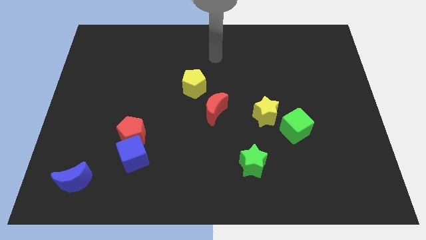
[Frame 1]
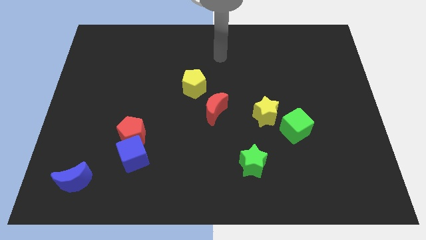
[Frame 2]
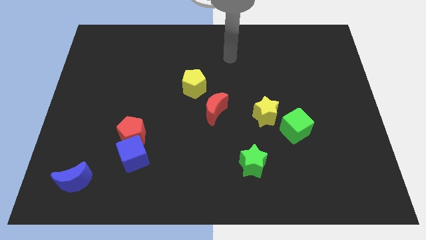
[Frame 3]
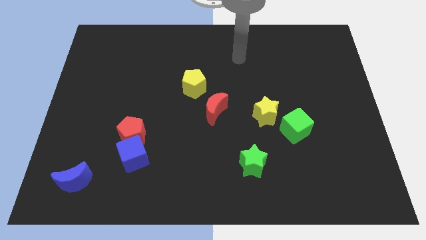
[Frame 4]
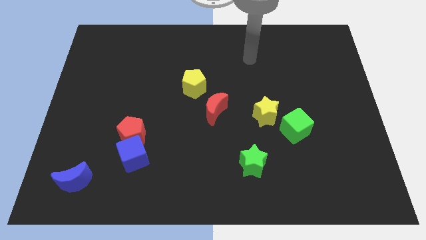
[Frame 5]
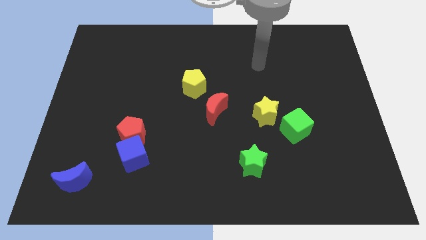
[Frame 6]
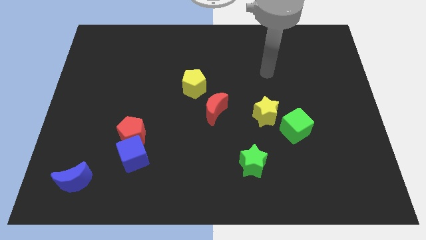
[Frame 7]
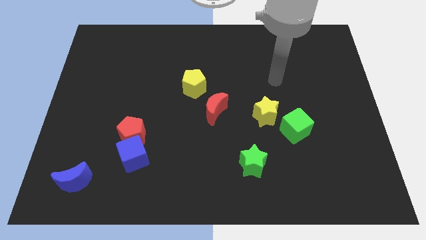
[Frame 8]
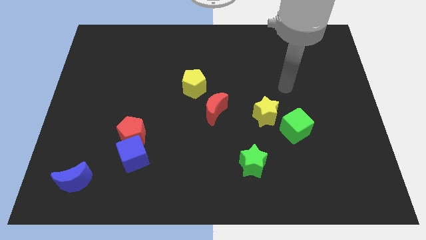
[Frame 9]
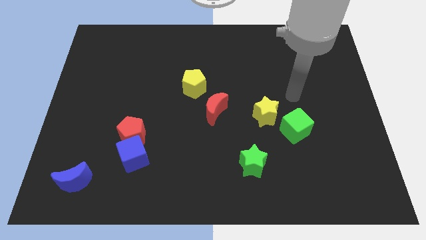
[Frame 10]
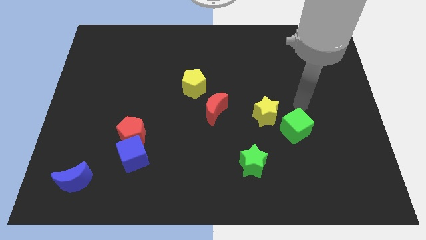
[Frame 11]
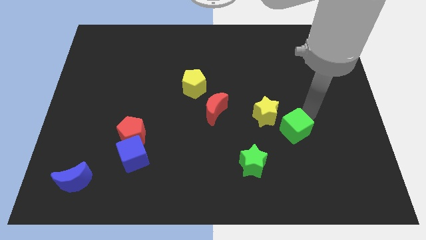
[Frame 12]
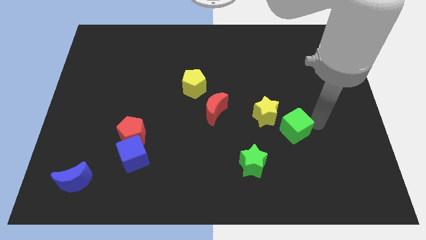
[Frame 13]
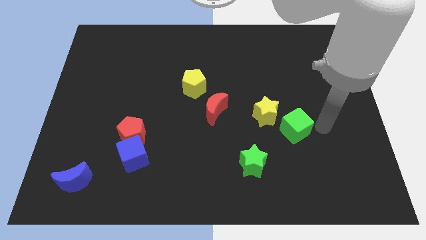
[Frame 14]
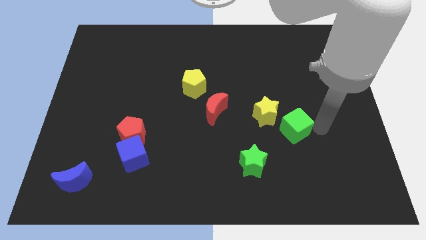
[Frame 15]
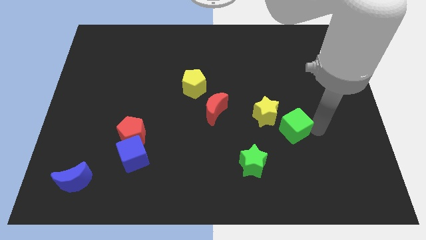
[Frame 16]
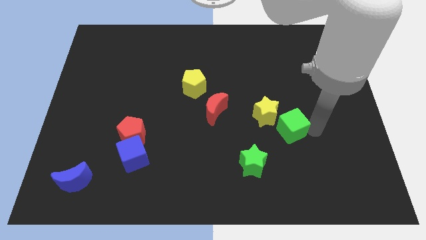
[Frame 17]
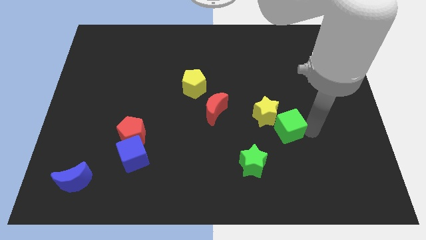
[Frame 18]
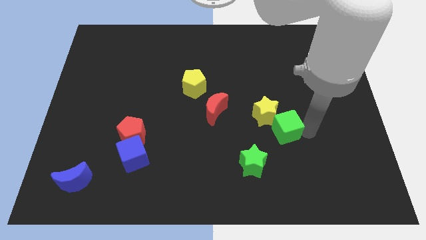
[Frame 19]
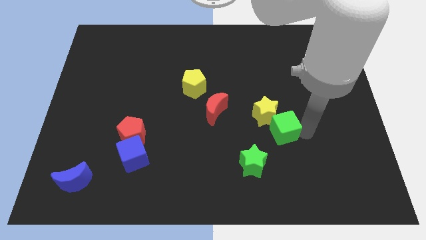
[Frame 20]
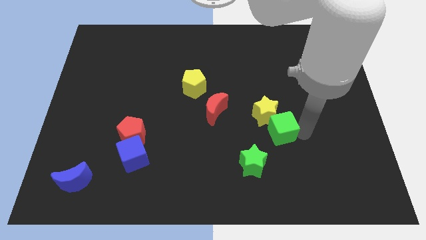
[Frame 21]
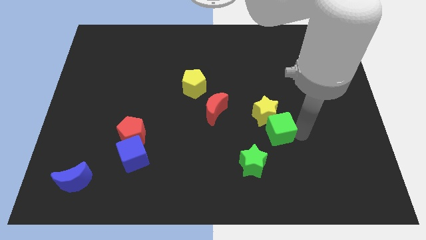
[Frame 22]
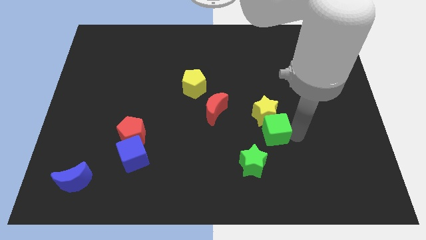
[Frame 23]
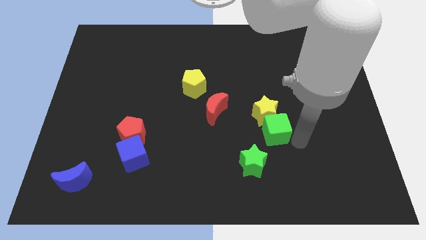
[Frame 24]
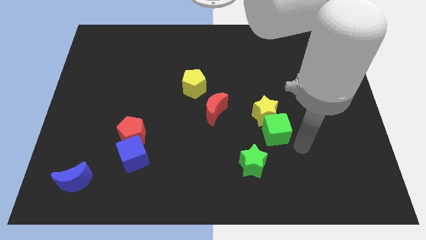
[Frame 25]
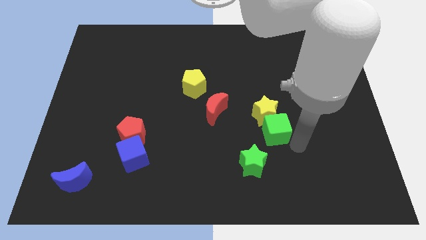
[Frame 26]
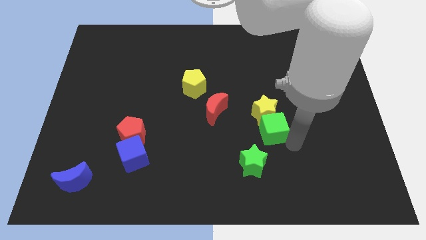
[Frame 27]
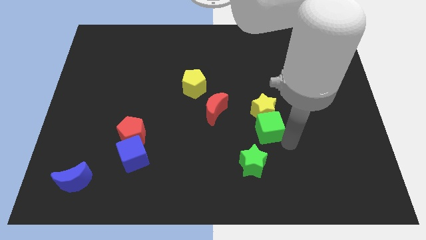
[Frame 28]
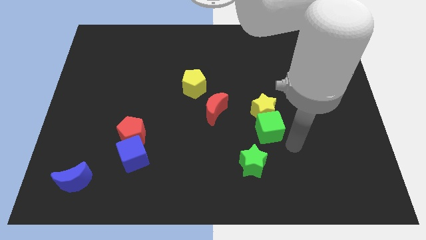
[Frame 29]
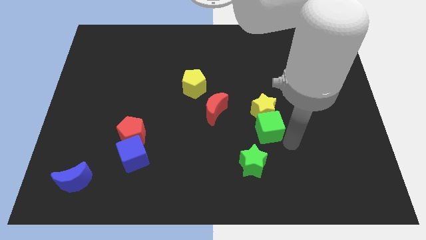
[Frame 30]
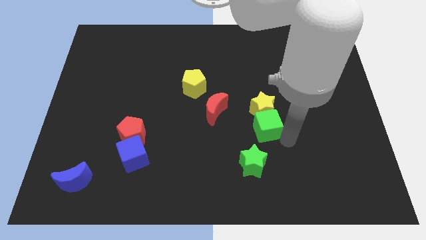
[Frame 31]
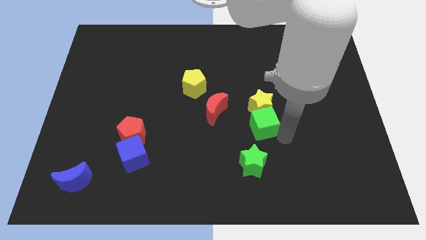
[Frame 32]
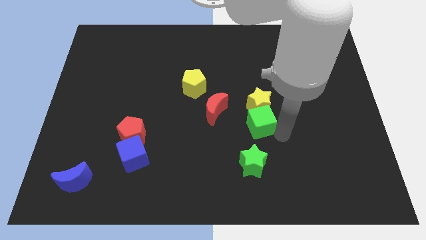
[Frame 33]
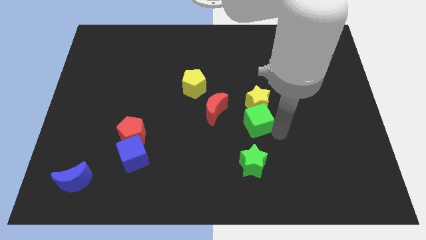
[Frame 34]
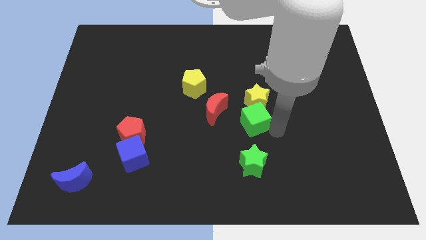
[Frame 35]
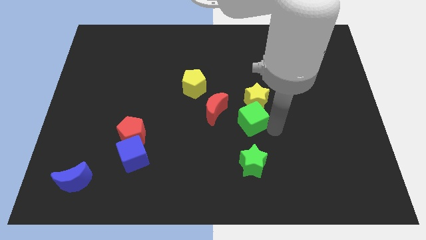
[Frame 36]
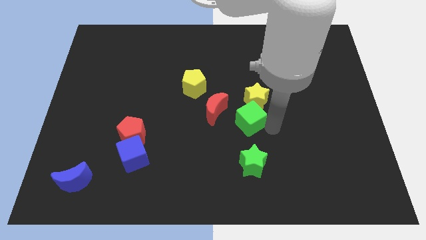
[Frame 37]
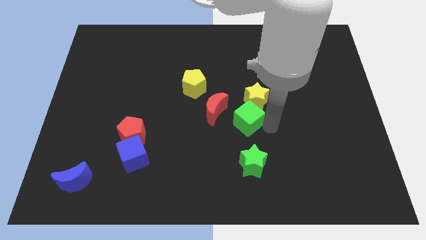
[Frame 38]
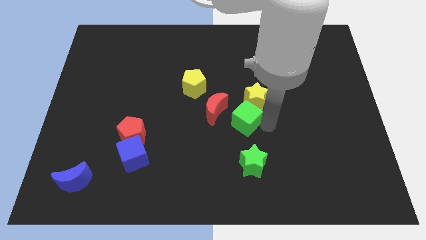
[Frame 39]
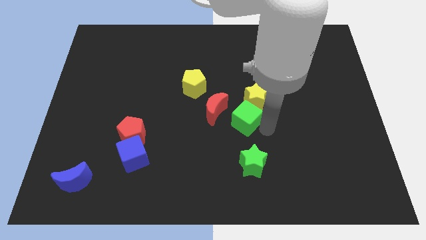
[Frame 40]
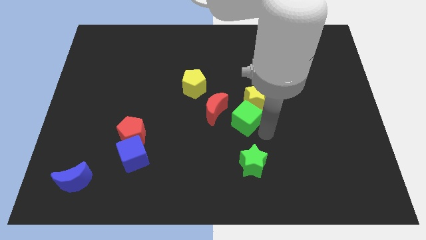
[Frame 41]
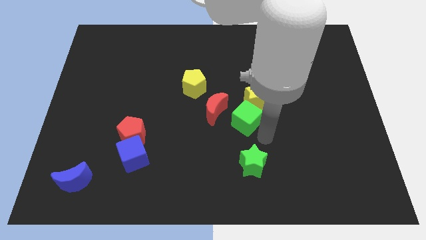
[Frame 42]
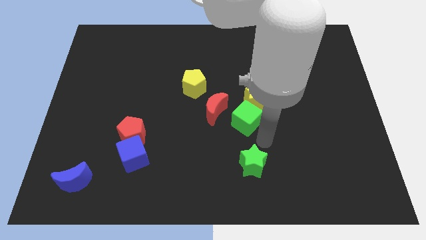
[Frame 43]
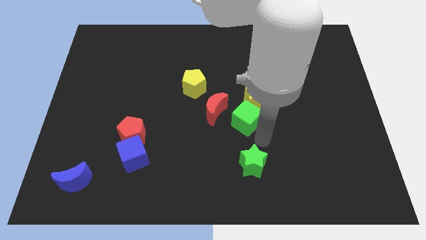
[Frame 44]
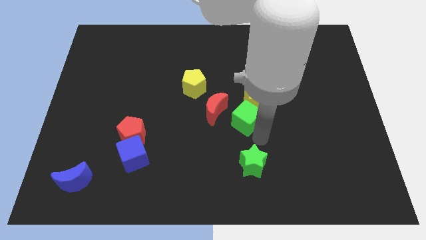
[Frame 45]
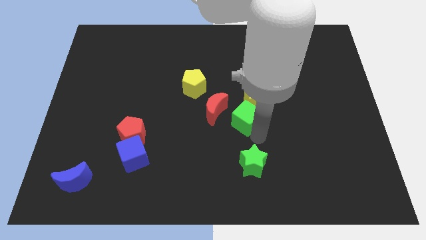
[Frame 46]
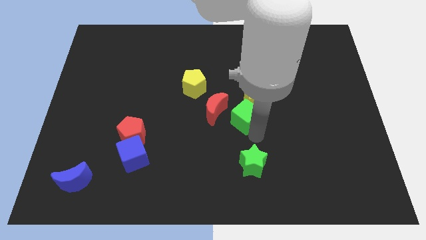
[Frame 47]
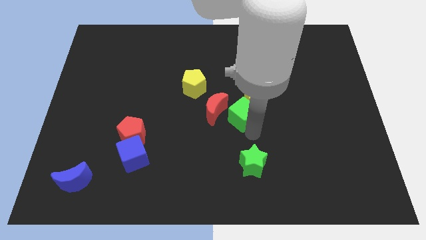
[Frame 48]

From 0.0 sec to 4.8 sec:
push the green cube left of the yellow star

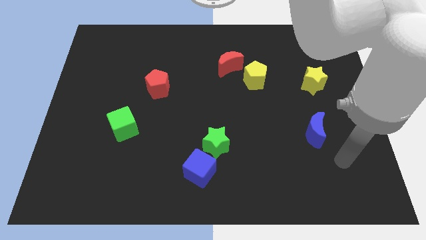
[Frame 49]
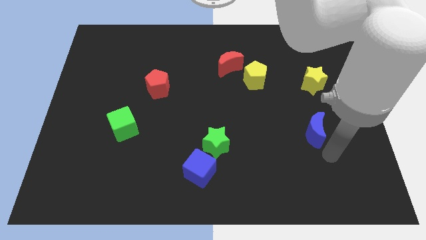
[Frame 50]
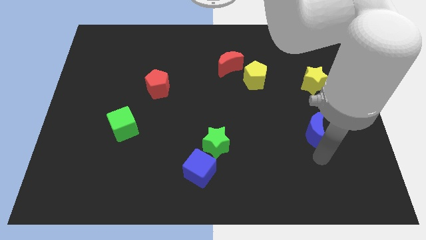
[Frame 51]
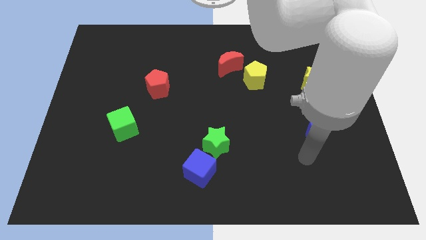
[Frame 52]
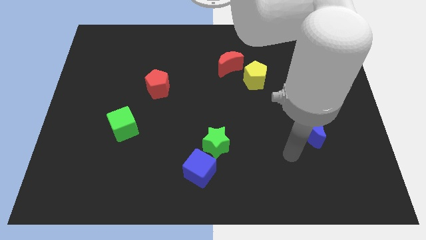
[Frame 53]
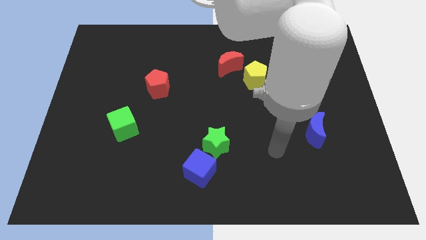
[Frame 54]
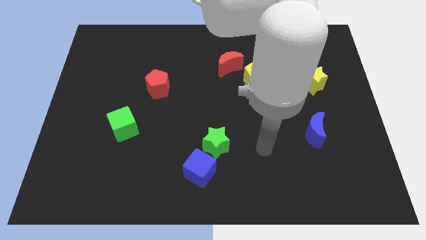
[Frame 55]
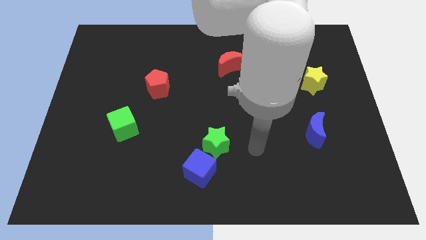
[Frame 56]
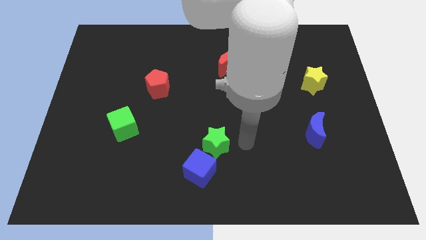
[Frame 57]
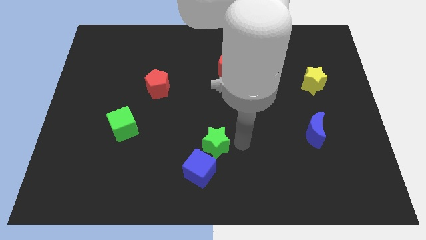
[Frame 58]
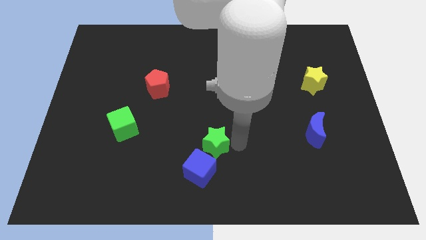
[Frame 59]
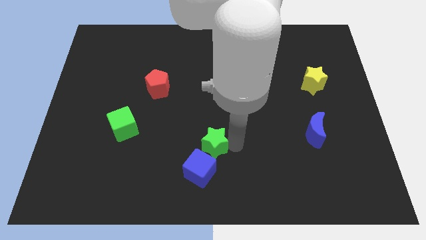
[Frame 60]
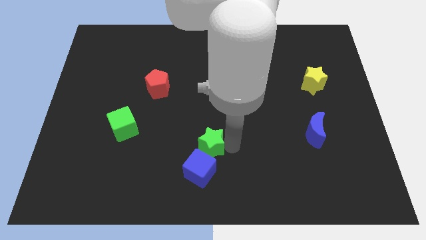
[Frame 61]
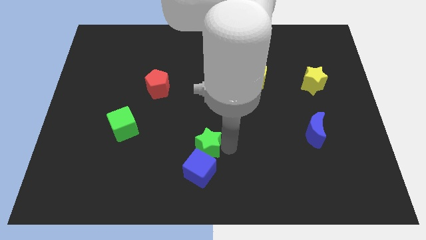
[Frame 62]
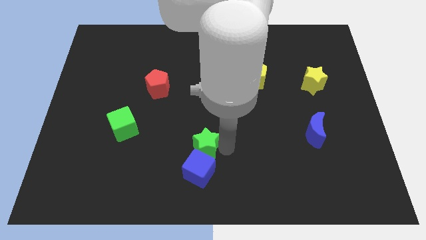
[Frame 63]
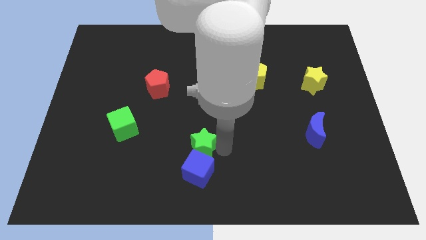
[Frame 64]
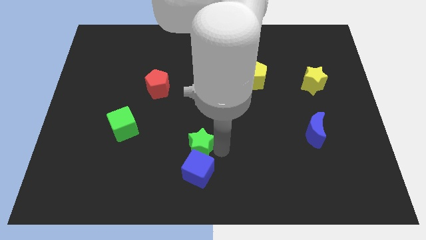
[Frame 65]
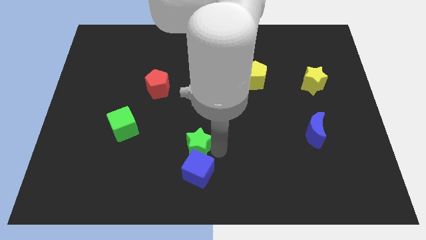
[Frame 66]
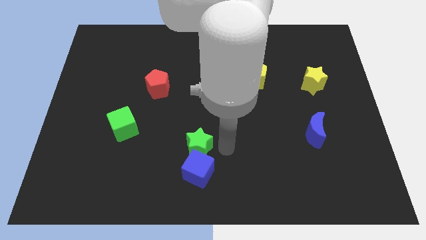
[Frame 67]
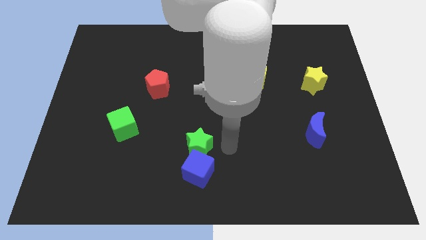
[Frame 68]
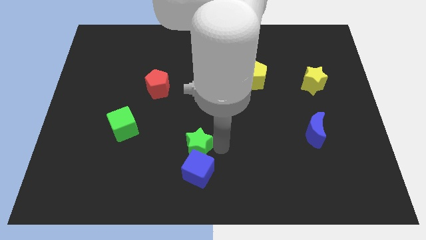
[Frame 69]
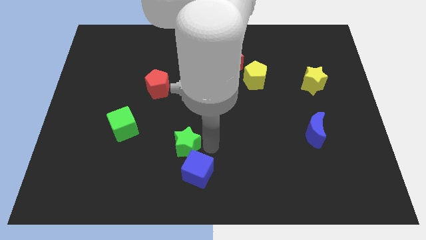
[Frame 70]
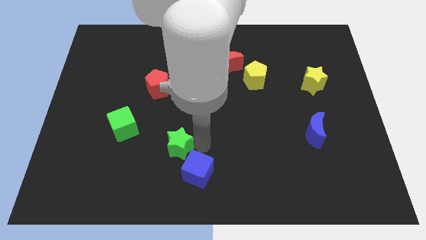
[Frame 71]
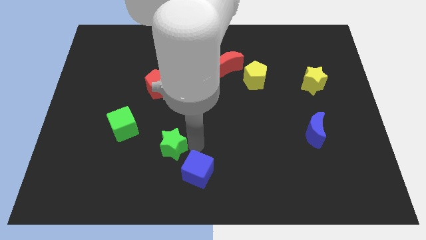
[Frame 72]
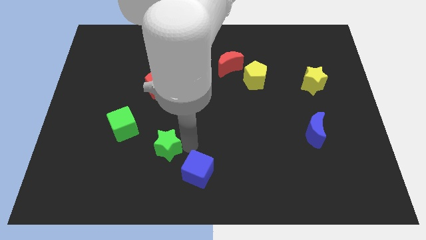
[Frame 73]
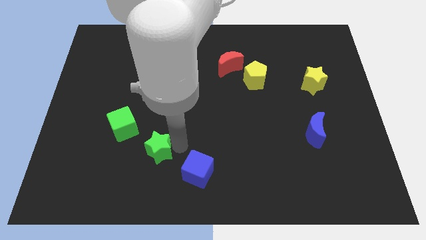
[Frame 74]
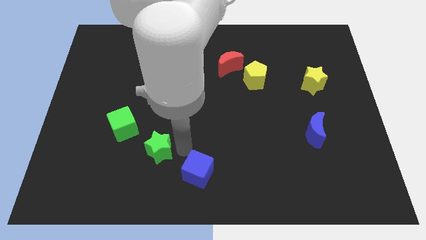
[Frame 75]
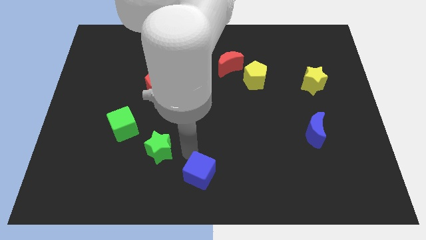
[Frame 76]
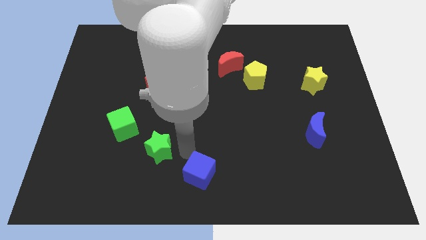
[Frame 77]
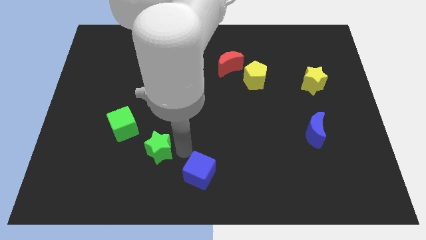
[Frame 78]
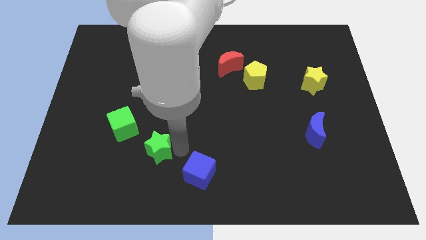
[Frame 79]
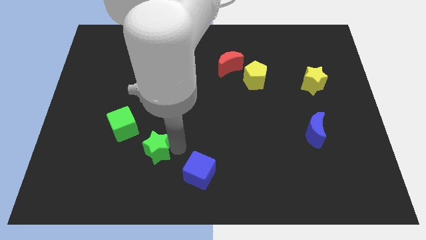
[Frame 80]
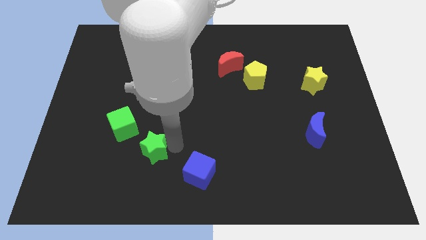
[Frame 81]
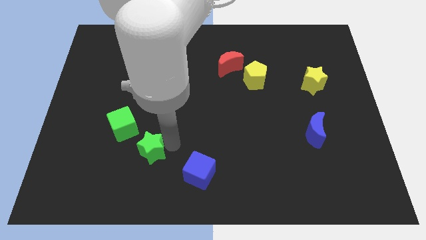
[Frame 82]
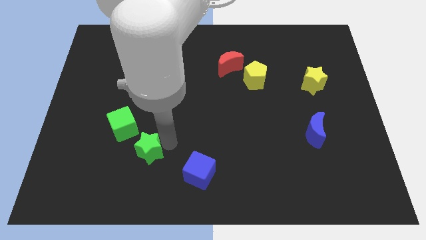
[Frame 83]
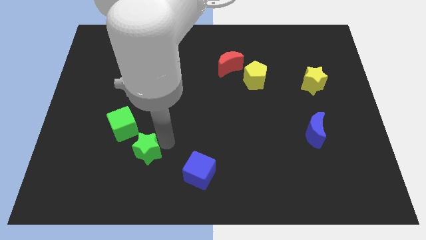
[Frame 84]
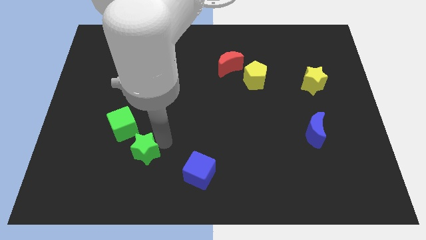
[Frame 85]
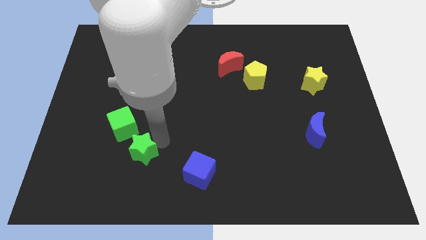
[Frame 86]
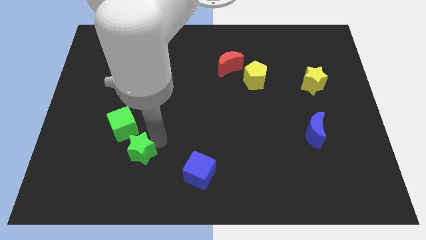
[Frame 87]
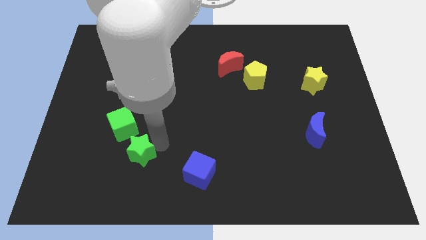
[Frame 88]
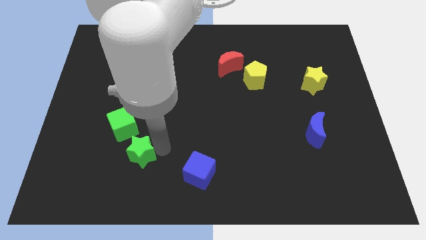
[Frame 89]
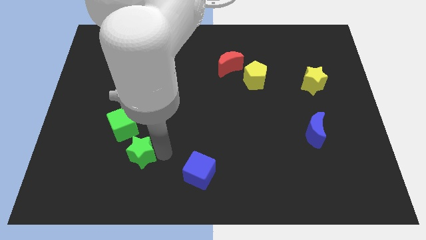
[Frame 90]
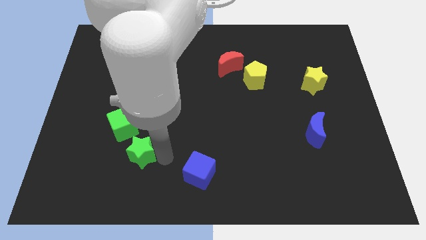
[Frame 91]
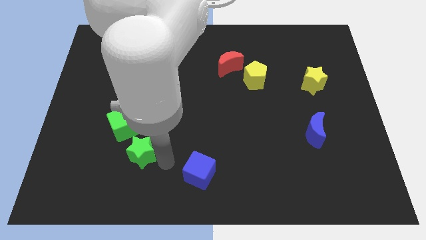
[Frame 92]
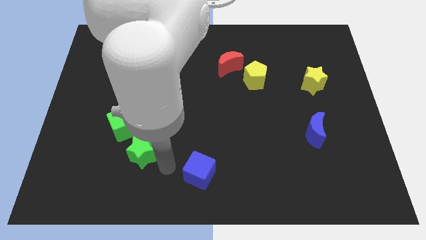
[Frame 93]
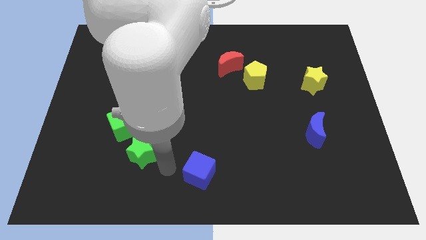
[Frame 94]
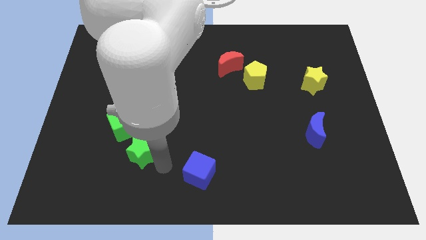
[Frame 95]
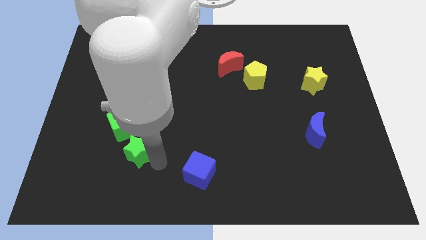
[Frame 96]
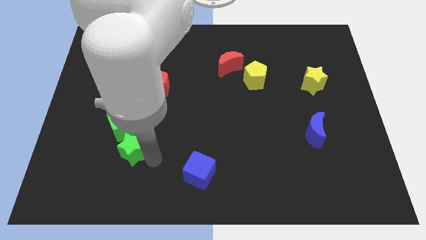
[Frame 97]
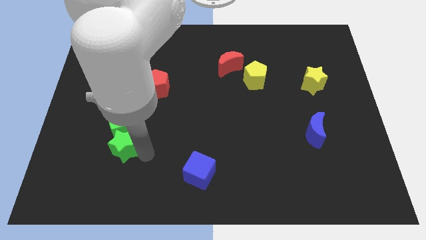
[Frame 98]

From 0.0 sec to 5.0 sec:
put the green star to the bottom left side of the green cube
